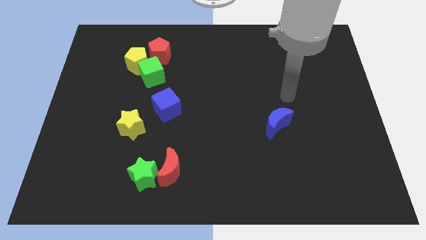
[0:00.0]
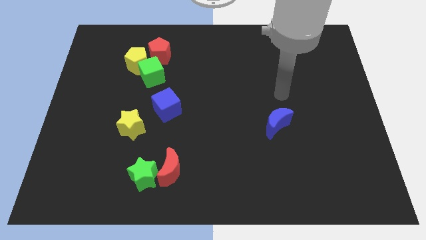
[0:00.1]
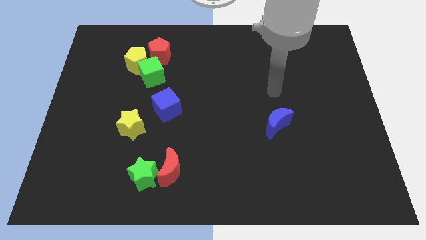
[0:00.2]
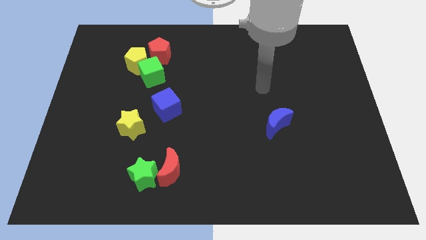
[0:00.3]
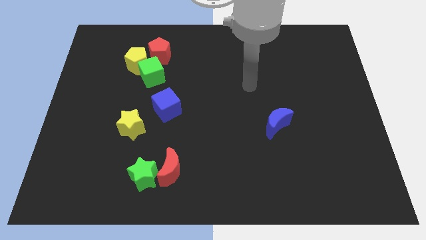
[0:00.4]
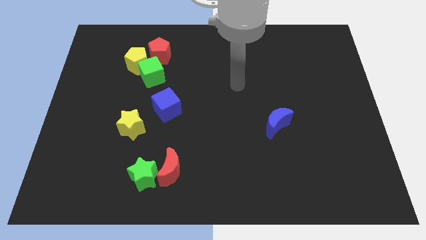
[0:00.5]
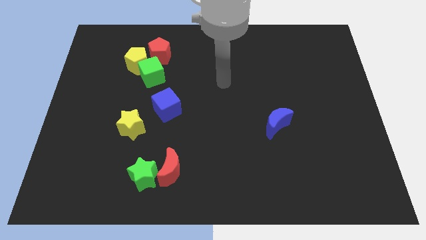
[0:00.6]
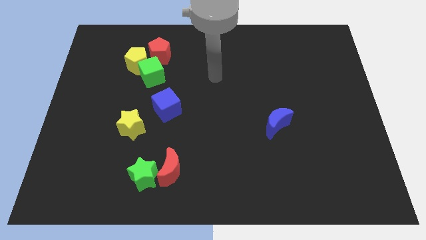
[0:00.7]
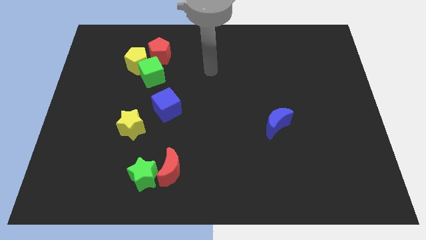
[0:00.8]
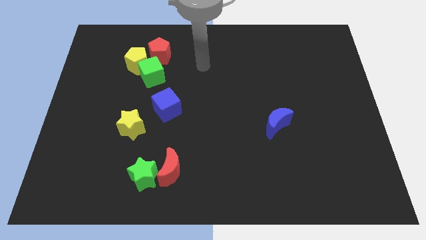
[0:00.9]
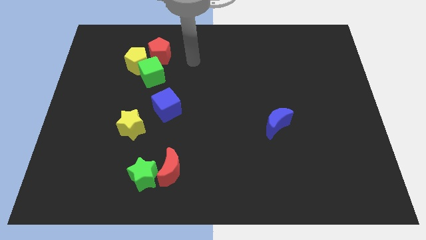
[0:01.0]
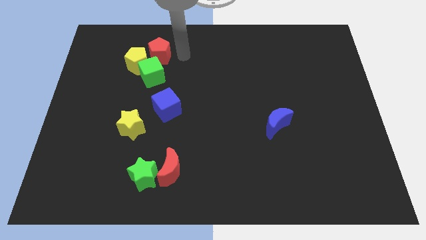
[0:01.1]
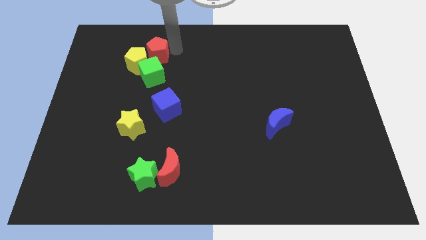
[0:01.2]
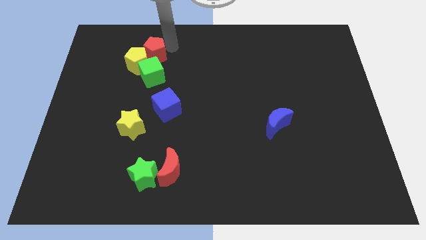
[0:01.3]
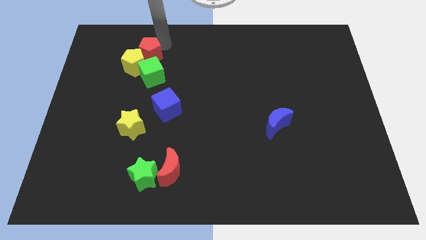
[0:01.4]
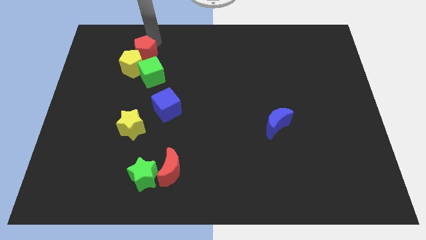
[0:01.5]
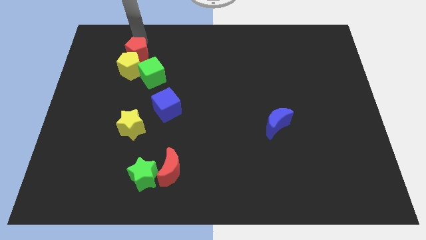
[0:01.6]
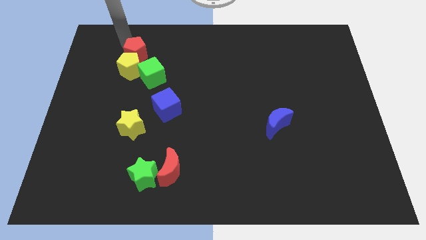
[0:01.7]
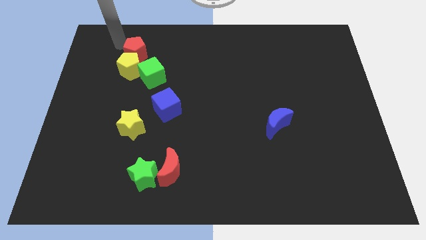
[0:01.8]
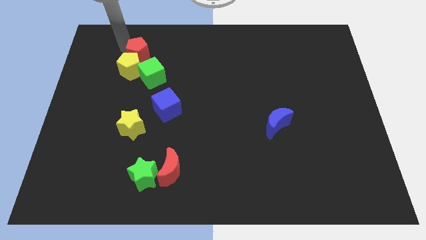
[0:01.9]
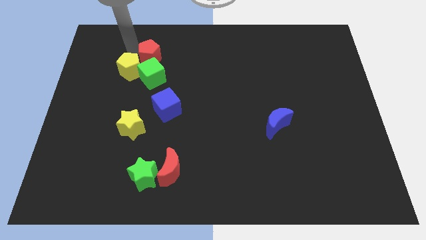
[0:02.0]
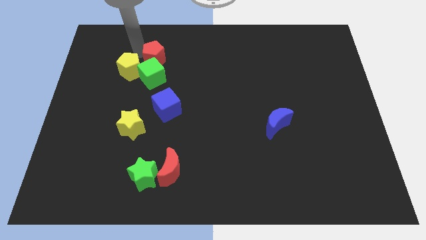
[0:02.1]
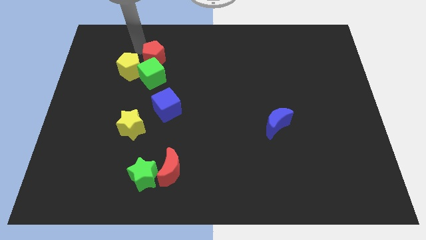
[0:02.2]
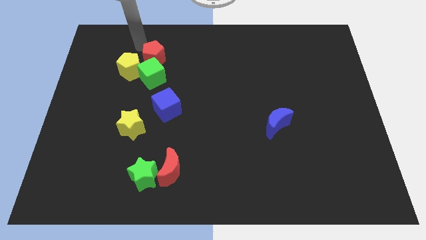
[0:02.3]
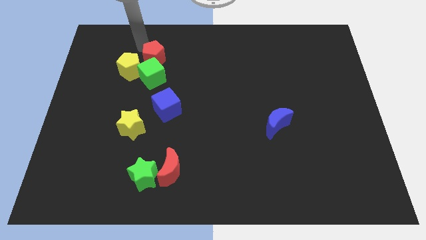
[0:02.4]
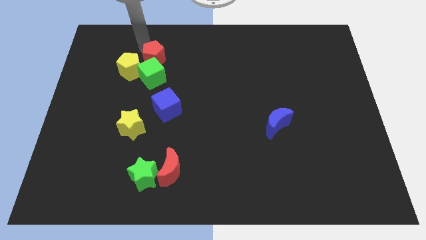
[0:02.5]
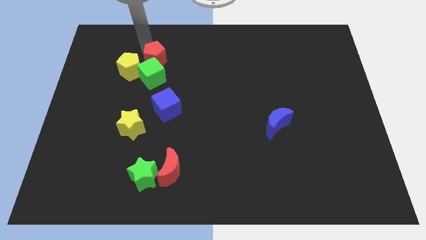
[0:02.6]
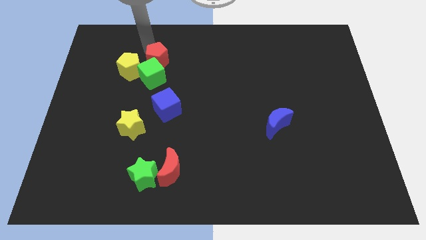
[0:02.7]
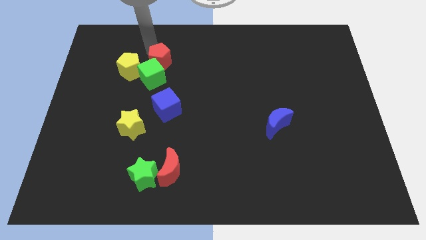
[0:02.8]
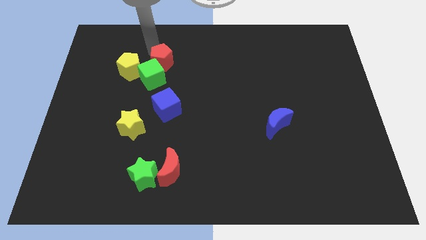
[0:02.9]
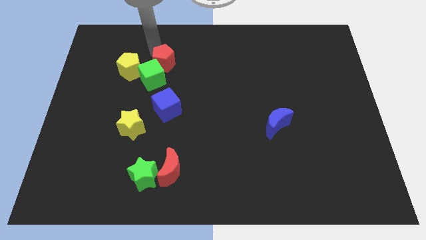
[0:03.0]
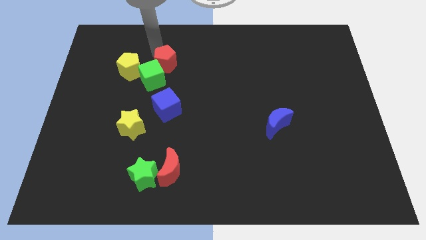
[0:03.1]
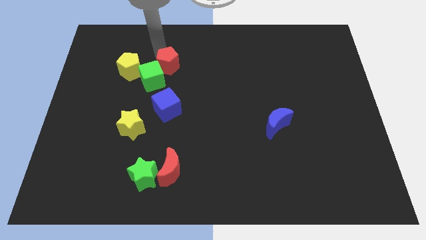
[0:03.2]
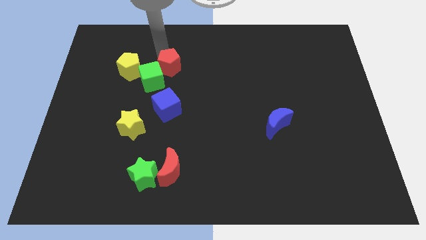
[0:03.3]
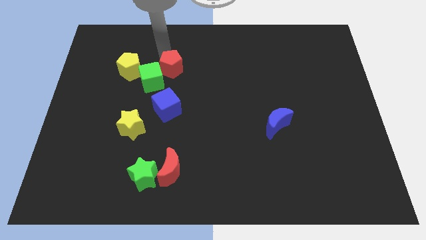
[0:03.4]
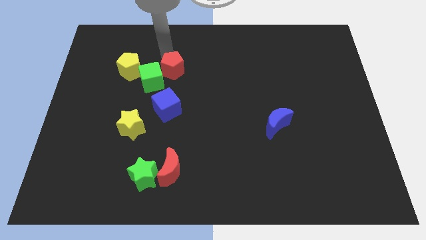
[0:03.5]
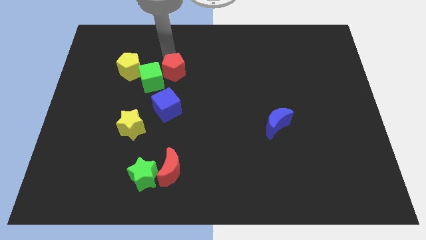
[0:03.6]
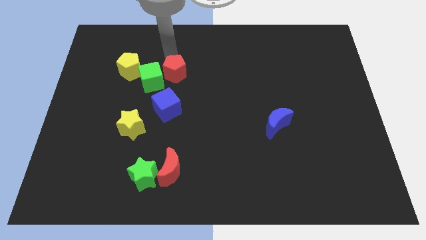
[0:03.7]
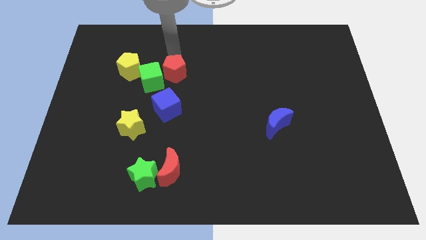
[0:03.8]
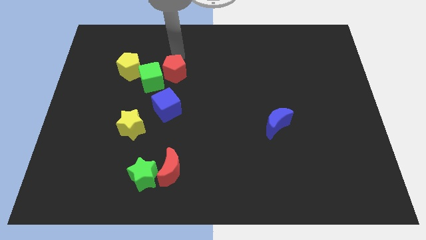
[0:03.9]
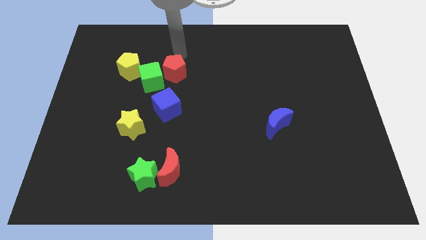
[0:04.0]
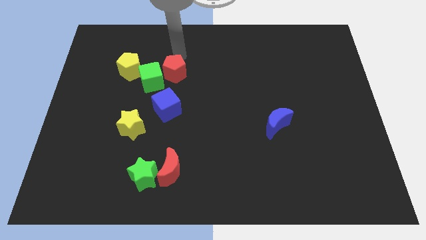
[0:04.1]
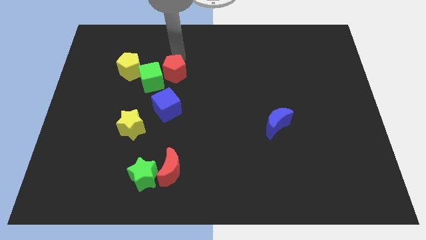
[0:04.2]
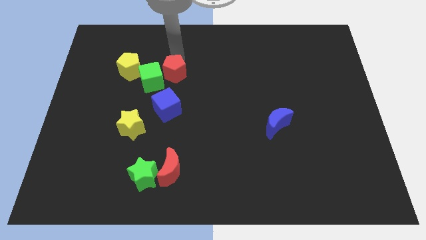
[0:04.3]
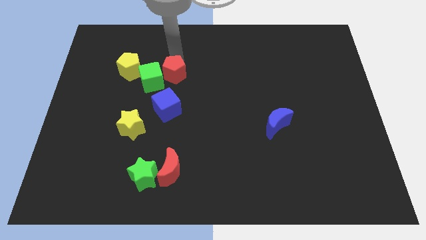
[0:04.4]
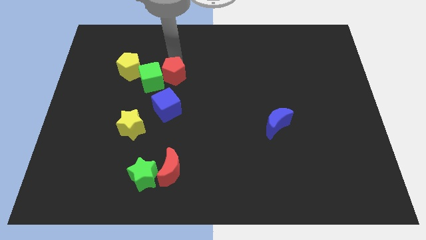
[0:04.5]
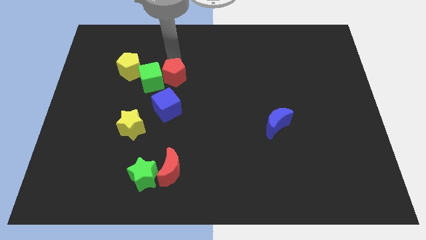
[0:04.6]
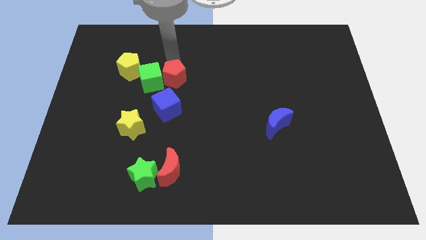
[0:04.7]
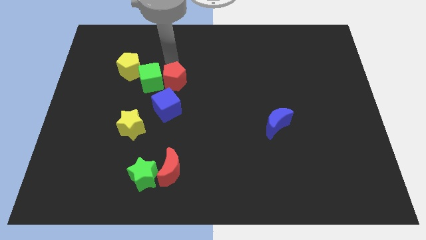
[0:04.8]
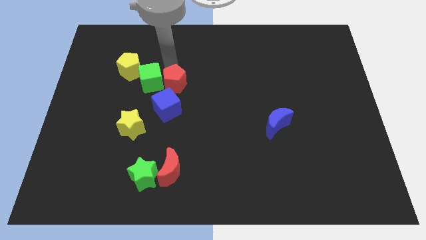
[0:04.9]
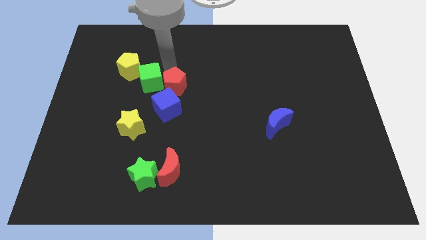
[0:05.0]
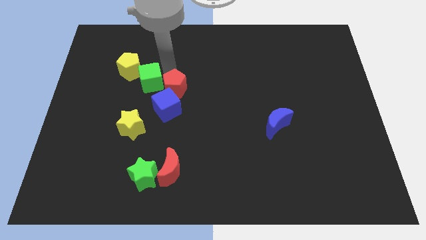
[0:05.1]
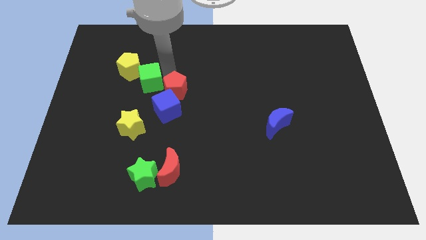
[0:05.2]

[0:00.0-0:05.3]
push the red pentagon to the blue cube

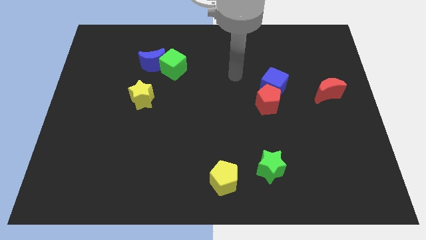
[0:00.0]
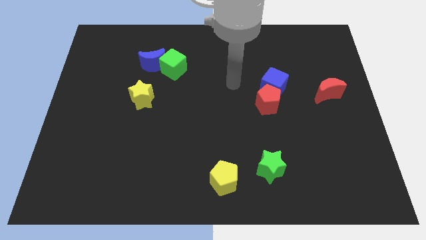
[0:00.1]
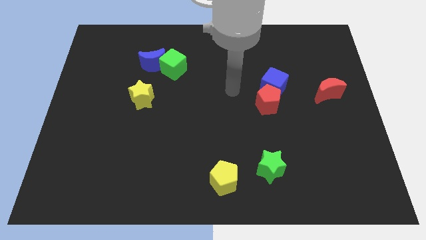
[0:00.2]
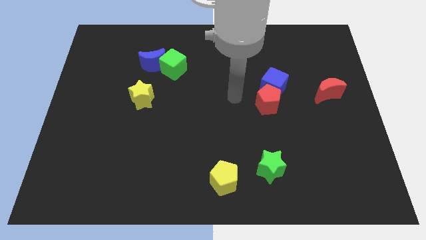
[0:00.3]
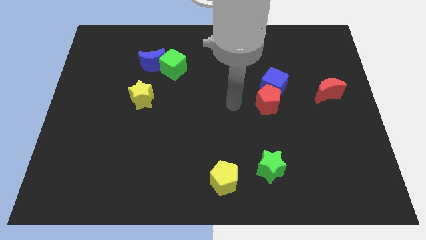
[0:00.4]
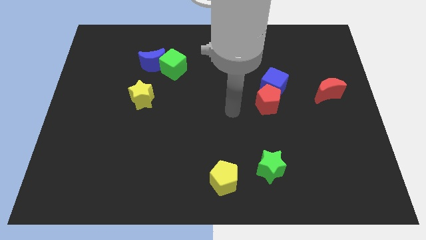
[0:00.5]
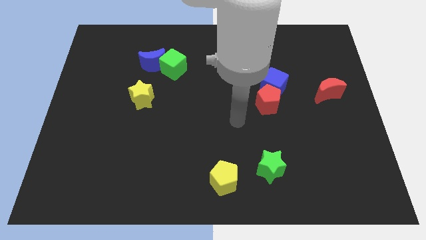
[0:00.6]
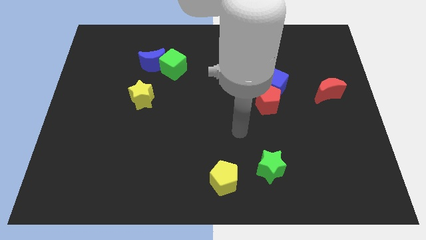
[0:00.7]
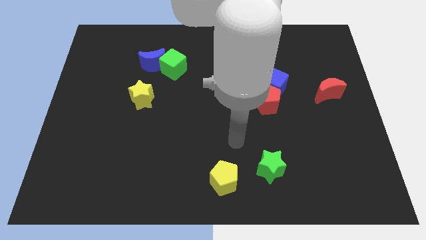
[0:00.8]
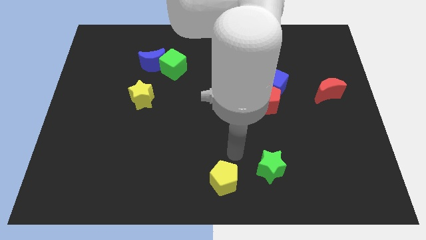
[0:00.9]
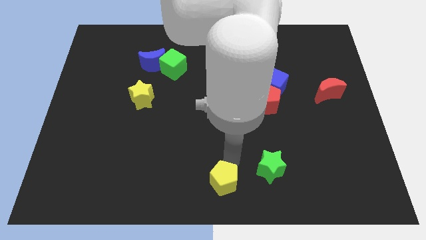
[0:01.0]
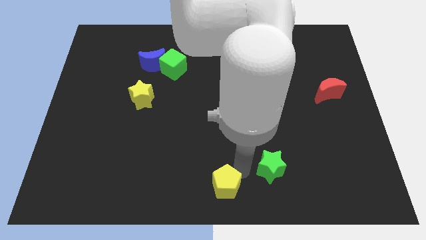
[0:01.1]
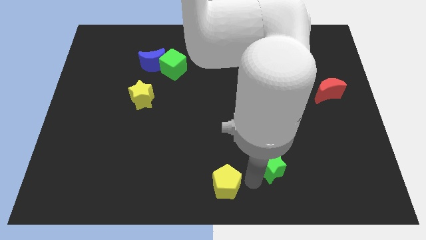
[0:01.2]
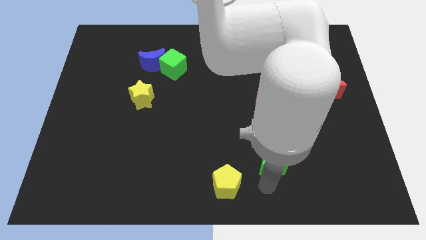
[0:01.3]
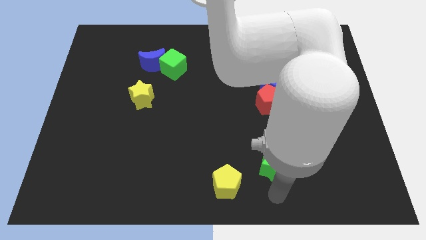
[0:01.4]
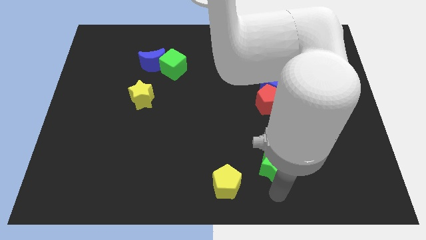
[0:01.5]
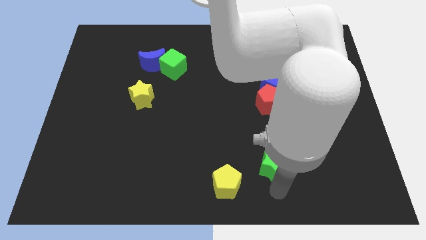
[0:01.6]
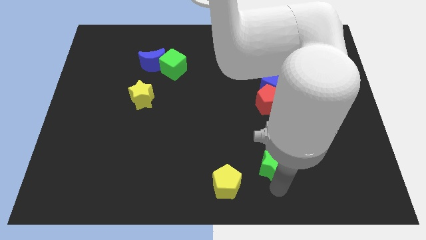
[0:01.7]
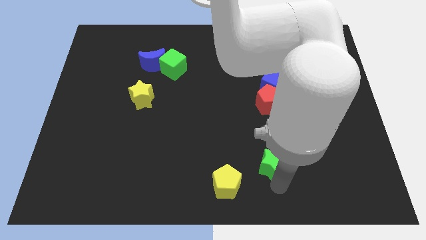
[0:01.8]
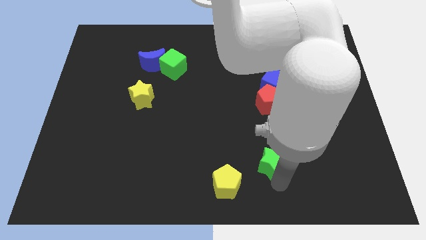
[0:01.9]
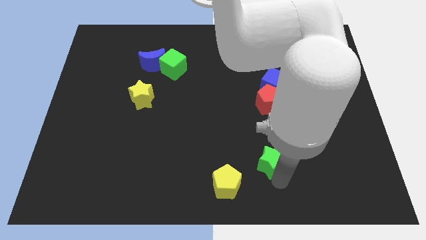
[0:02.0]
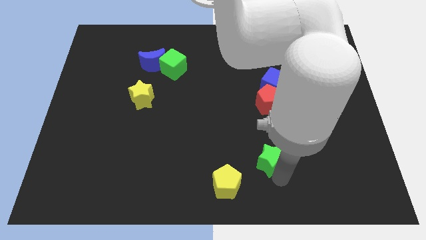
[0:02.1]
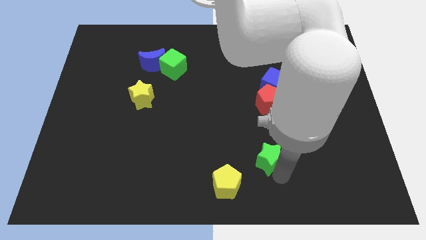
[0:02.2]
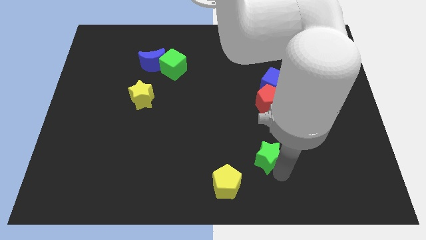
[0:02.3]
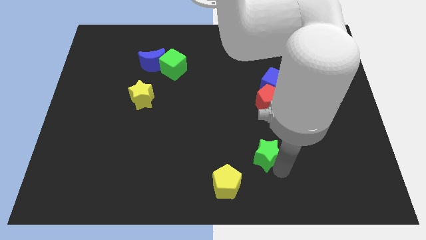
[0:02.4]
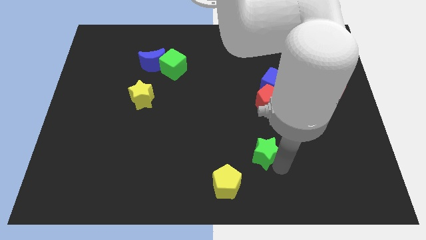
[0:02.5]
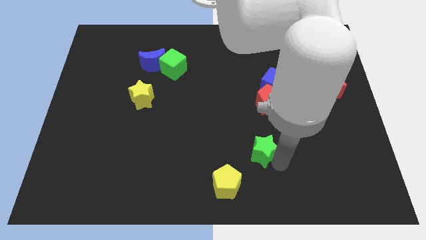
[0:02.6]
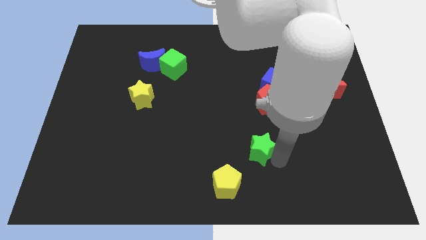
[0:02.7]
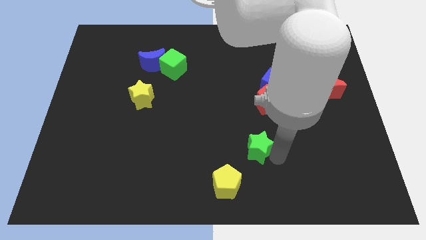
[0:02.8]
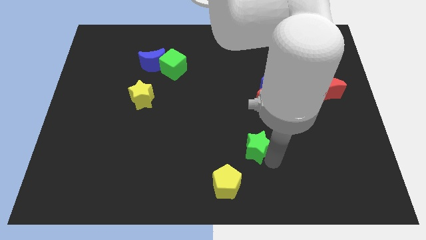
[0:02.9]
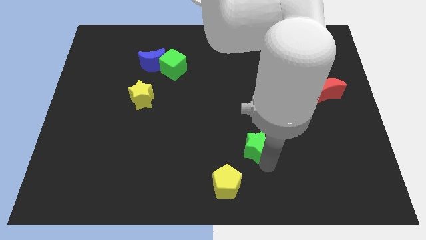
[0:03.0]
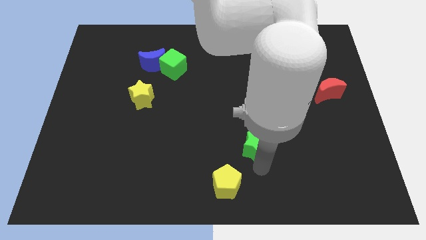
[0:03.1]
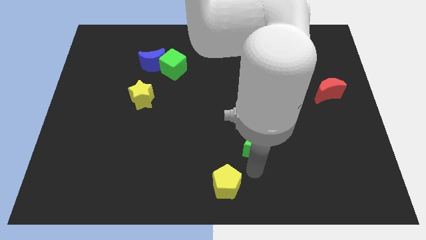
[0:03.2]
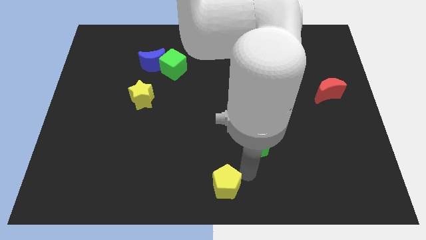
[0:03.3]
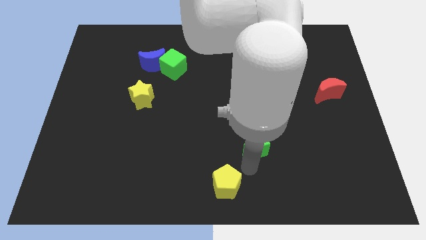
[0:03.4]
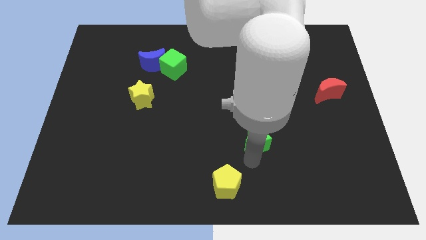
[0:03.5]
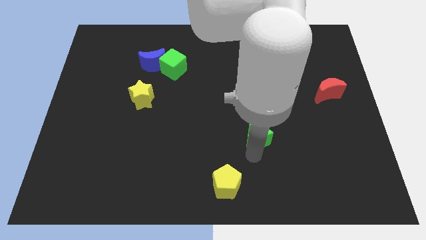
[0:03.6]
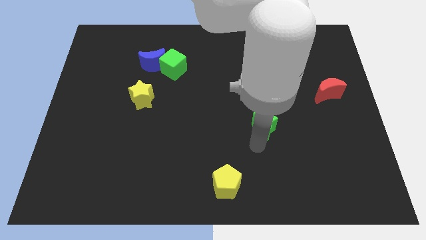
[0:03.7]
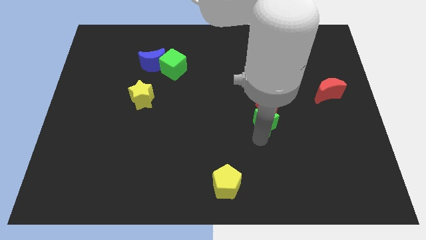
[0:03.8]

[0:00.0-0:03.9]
slide the green star next to the red pentagon
